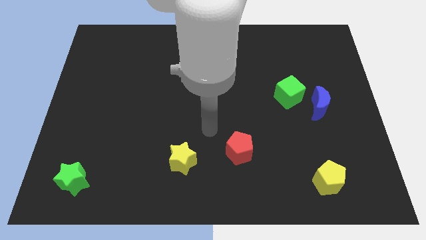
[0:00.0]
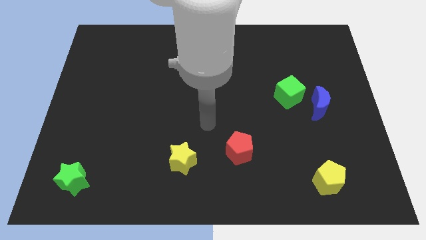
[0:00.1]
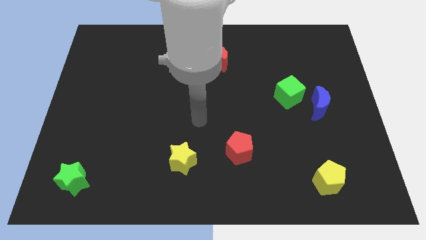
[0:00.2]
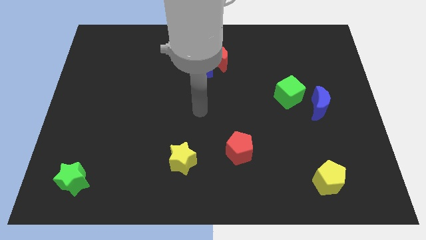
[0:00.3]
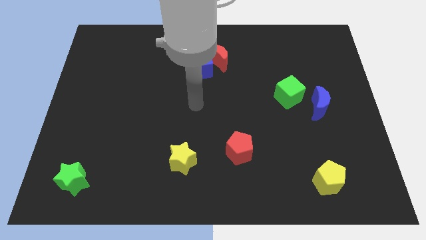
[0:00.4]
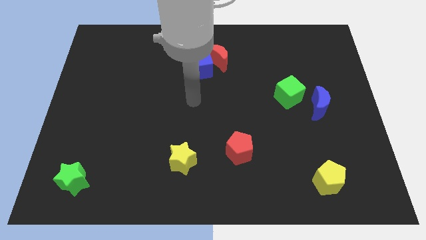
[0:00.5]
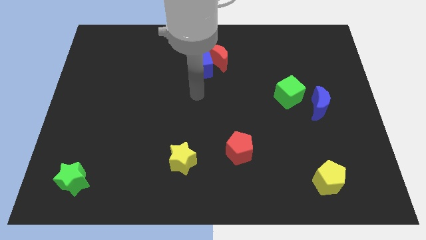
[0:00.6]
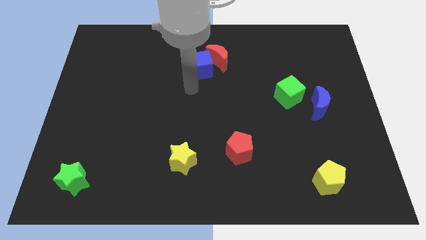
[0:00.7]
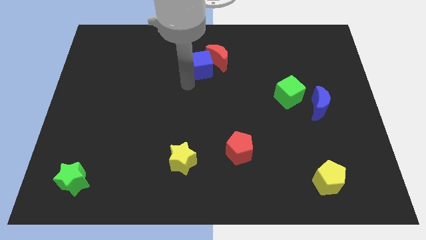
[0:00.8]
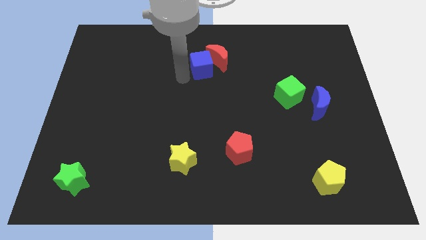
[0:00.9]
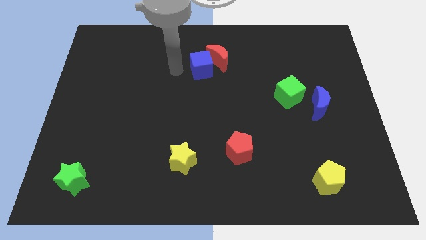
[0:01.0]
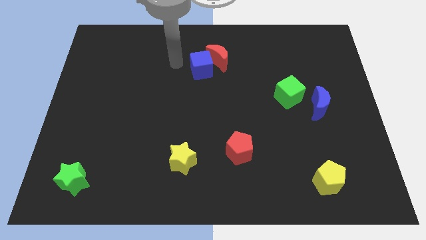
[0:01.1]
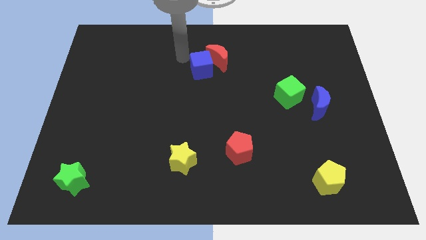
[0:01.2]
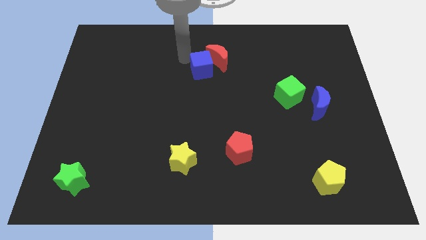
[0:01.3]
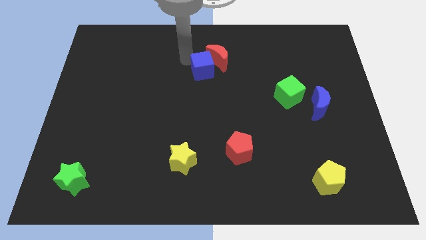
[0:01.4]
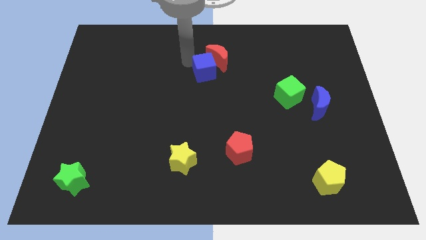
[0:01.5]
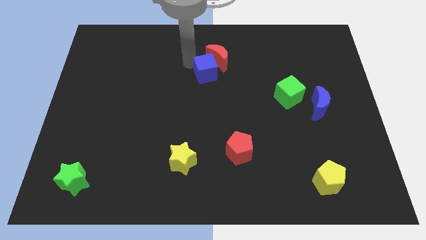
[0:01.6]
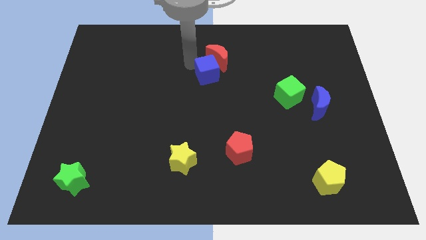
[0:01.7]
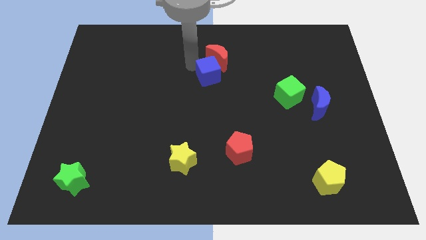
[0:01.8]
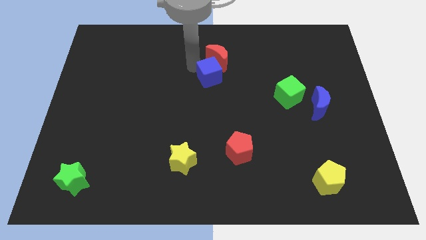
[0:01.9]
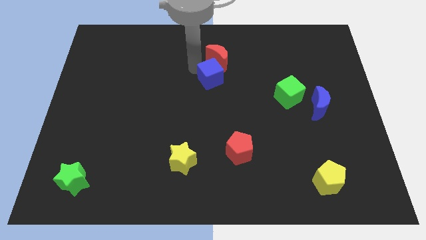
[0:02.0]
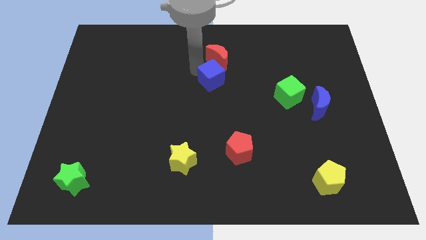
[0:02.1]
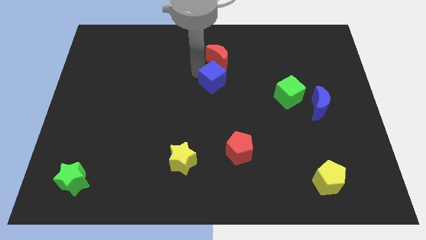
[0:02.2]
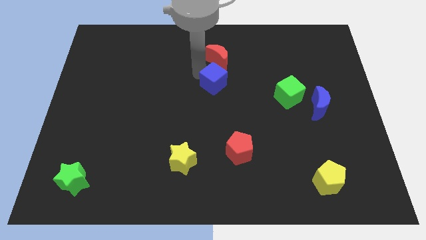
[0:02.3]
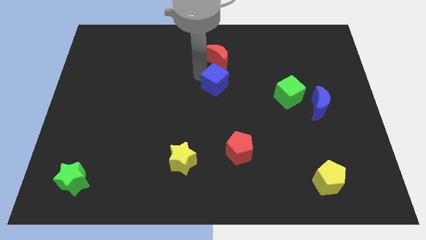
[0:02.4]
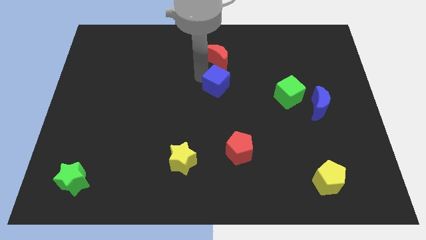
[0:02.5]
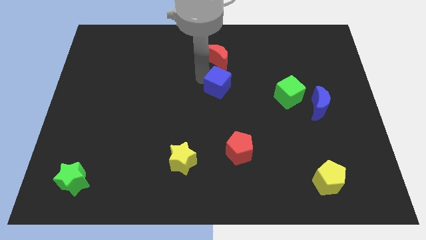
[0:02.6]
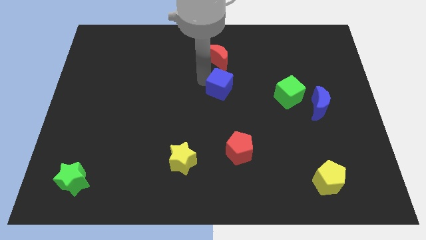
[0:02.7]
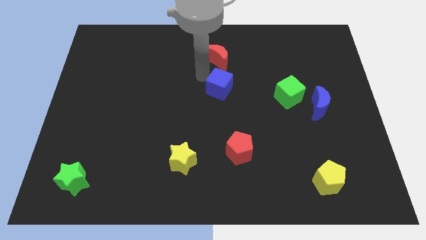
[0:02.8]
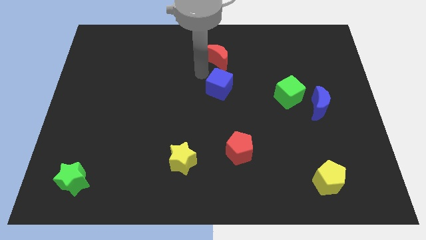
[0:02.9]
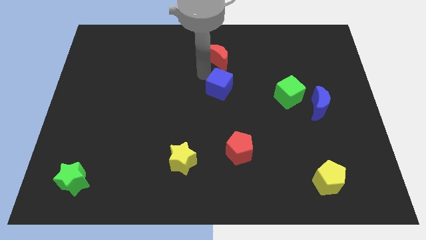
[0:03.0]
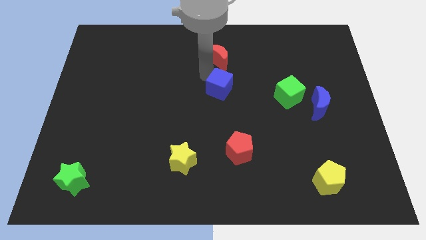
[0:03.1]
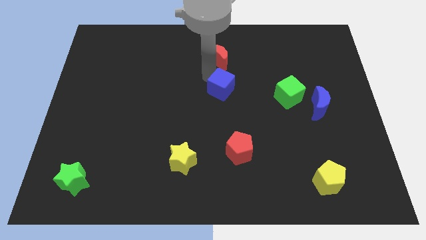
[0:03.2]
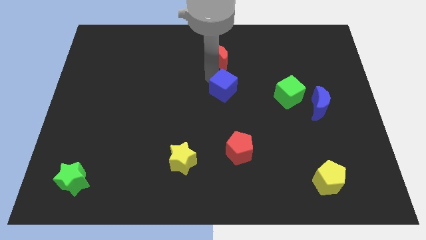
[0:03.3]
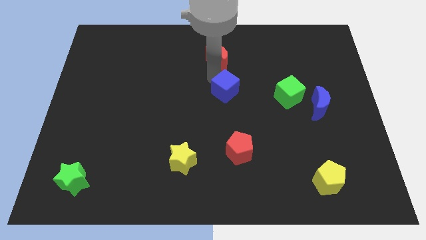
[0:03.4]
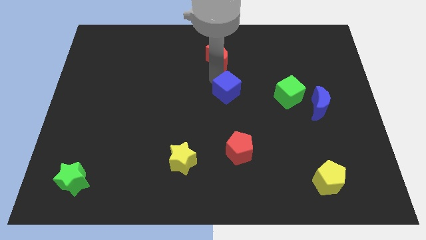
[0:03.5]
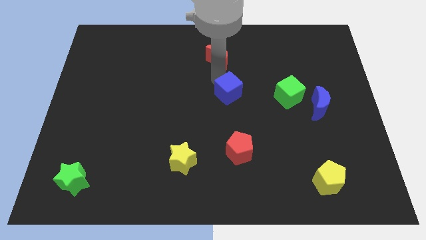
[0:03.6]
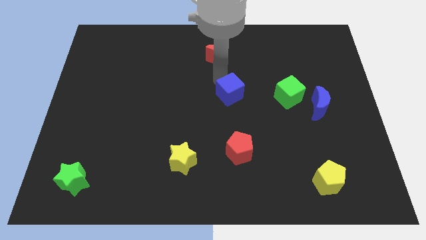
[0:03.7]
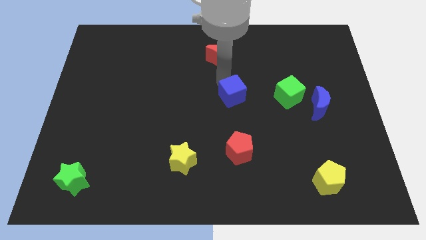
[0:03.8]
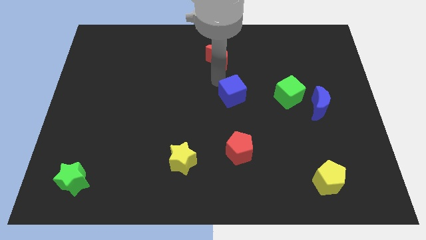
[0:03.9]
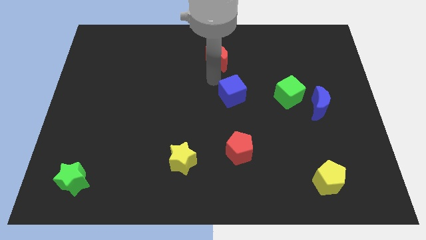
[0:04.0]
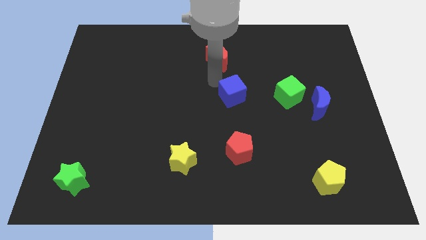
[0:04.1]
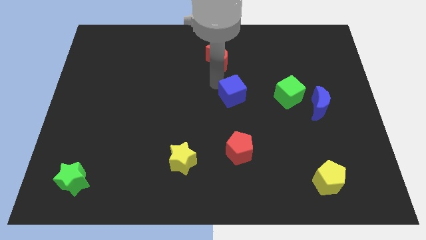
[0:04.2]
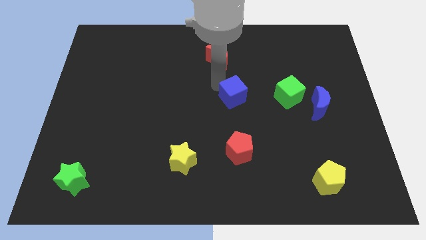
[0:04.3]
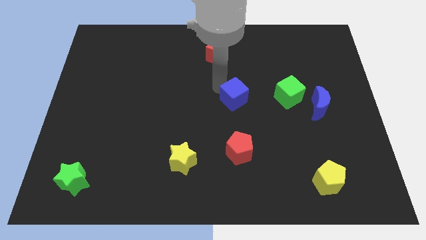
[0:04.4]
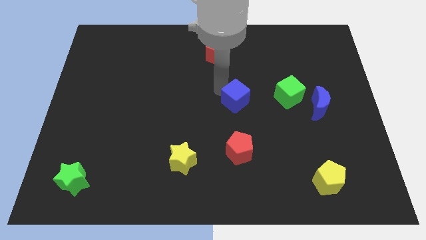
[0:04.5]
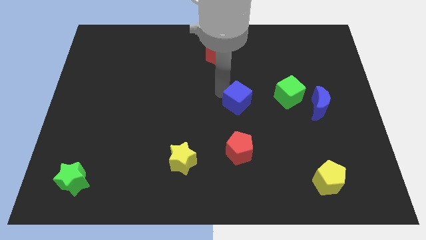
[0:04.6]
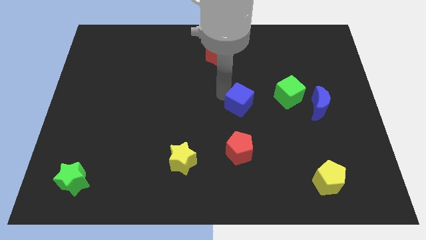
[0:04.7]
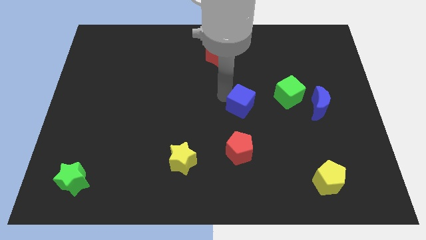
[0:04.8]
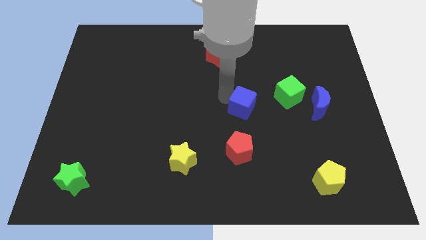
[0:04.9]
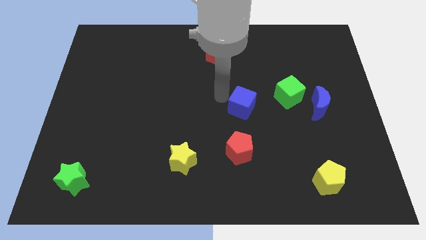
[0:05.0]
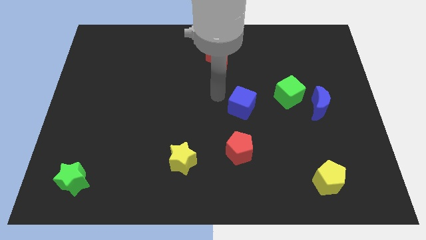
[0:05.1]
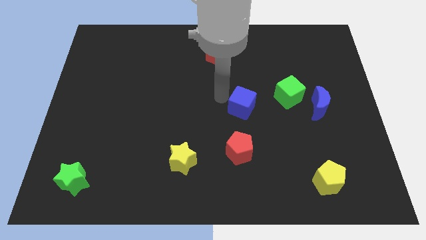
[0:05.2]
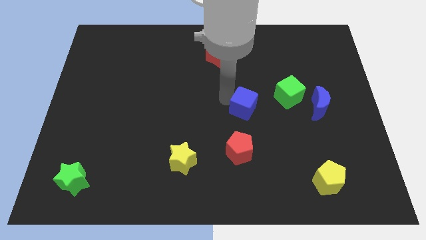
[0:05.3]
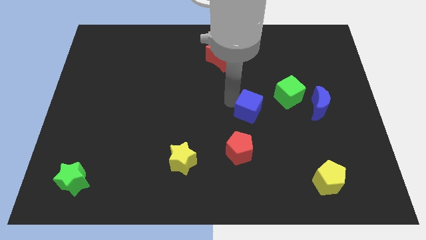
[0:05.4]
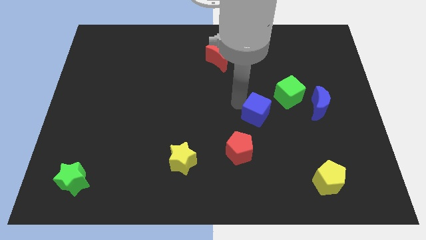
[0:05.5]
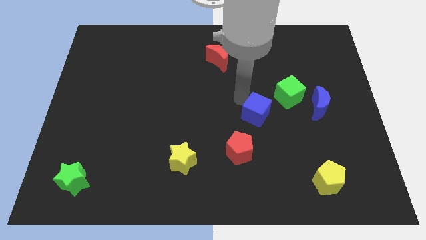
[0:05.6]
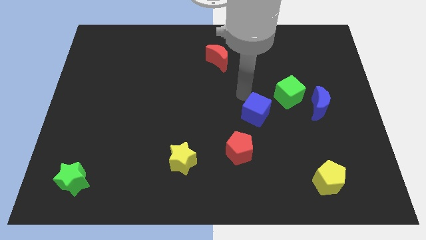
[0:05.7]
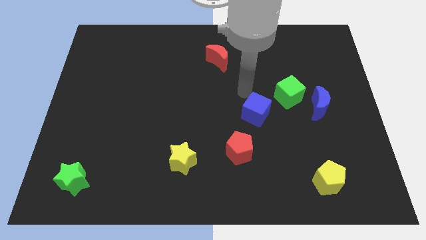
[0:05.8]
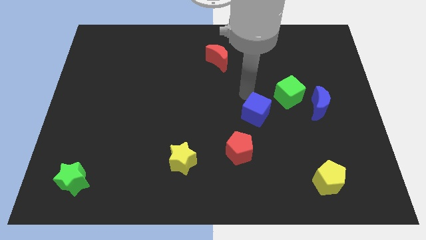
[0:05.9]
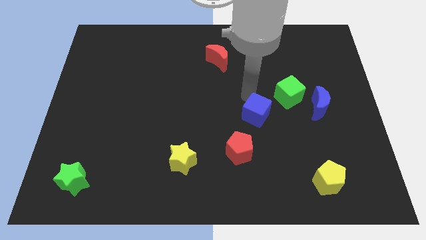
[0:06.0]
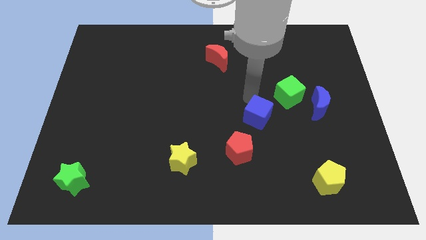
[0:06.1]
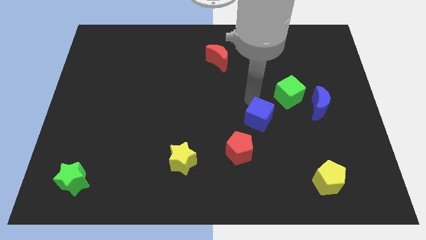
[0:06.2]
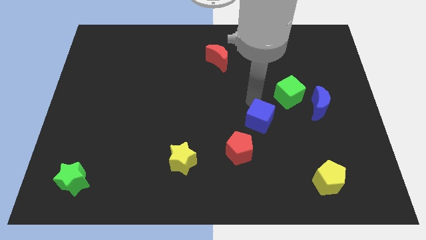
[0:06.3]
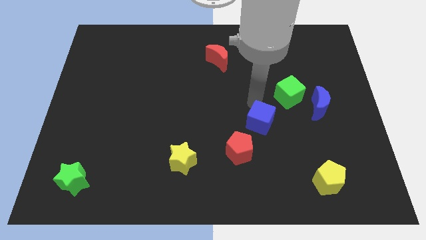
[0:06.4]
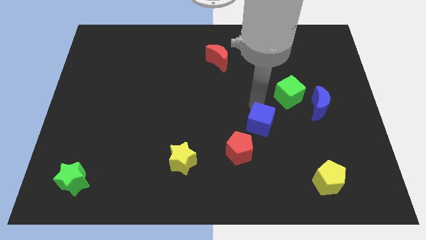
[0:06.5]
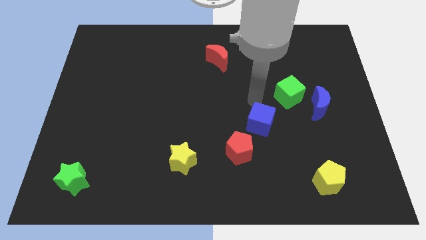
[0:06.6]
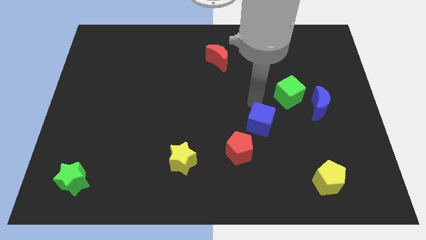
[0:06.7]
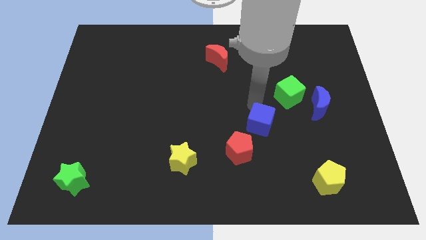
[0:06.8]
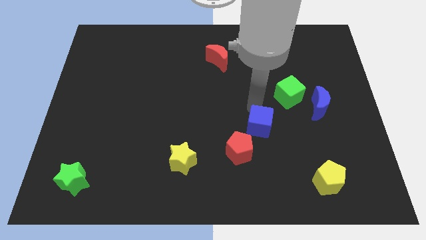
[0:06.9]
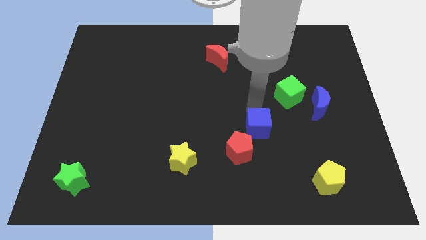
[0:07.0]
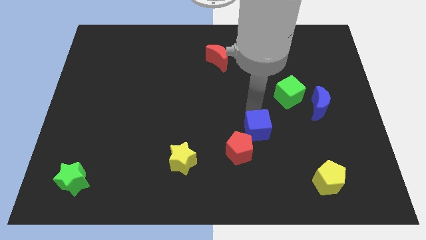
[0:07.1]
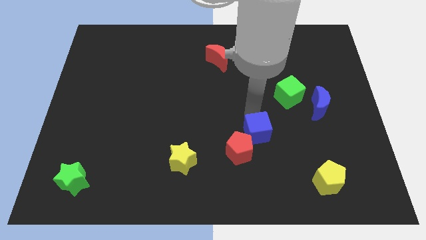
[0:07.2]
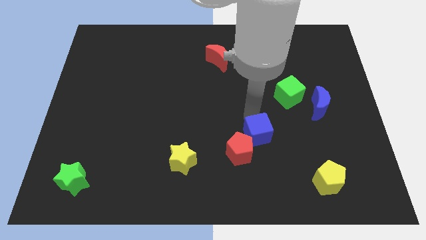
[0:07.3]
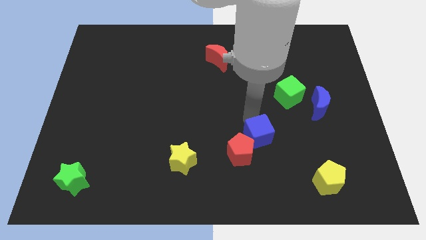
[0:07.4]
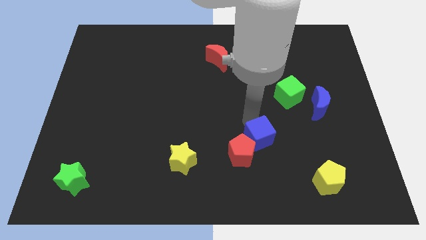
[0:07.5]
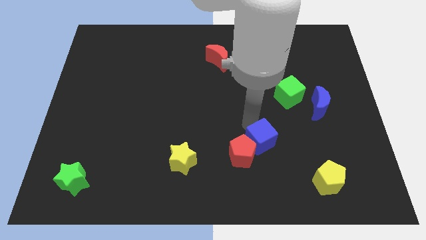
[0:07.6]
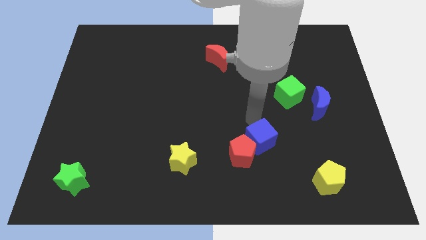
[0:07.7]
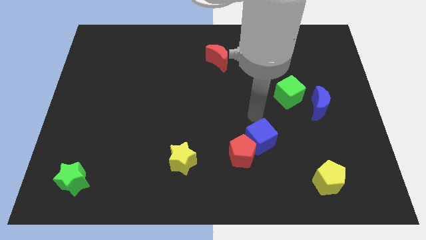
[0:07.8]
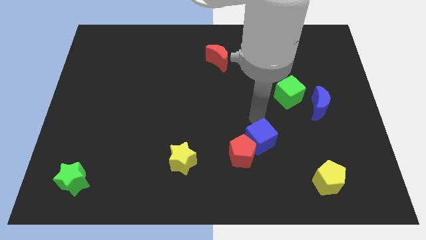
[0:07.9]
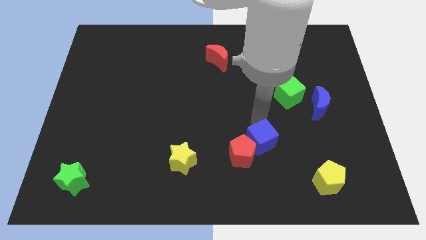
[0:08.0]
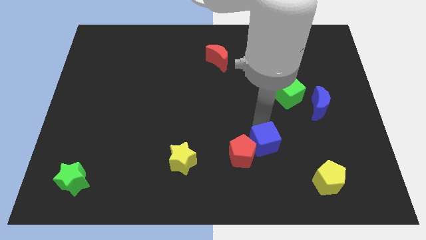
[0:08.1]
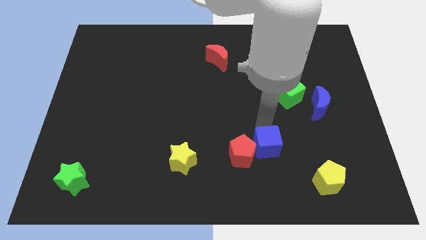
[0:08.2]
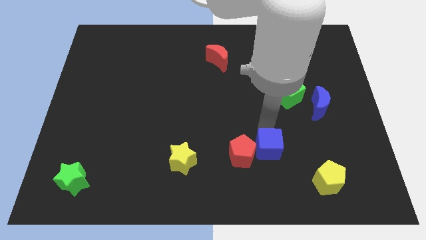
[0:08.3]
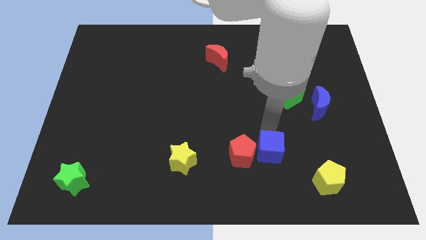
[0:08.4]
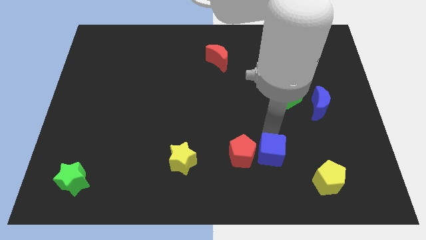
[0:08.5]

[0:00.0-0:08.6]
move the blue cube to the bottom right of the red pentagon

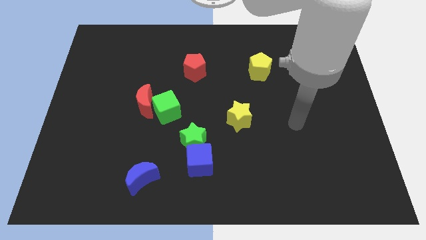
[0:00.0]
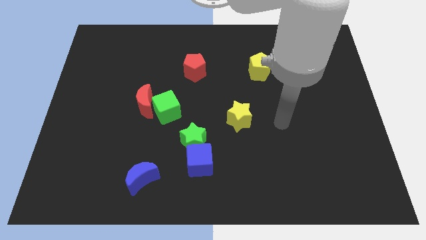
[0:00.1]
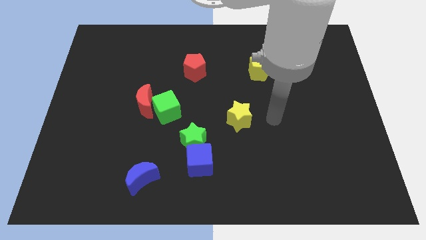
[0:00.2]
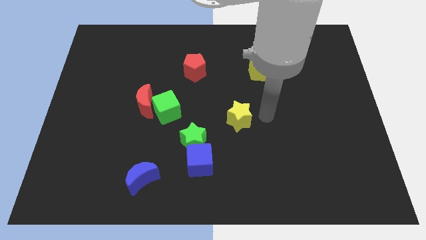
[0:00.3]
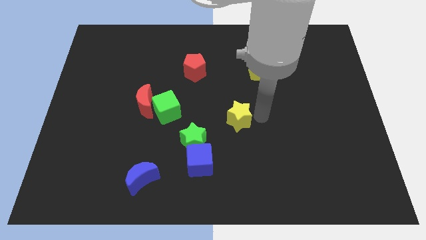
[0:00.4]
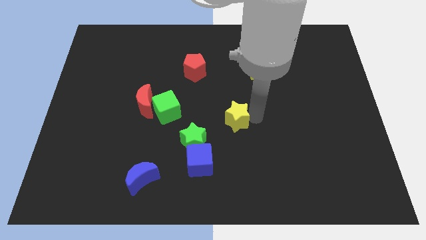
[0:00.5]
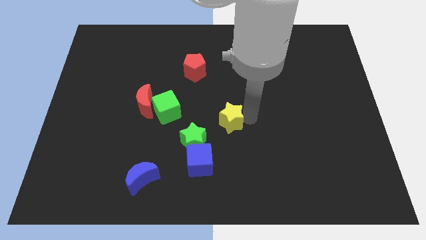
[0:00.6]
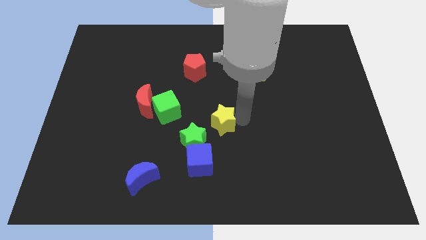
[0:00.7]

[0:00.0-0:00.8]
push the yellow star to the top side of the blue cube
